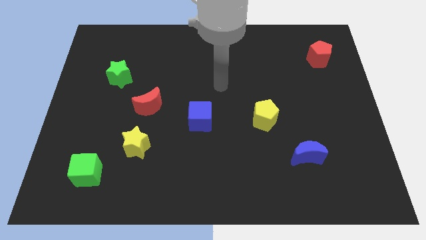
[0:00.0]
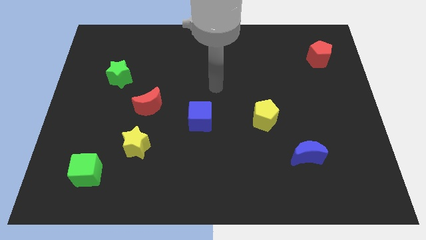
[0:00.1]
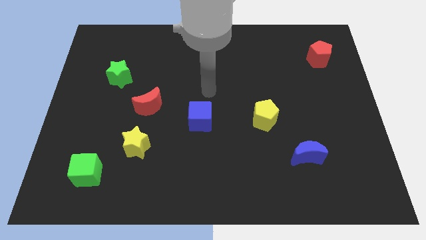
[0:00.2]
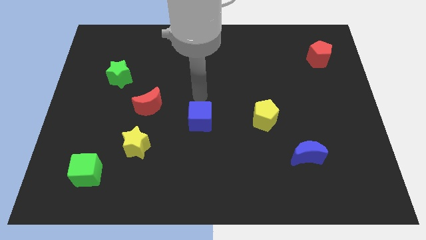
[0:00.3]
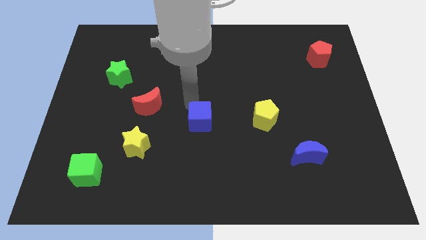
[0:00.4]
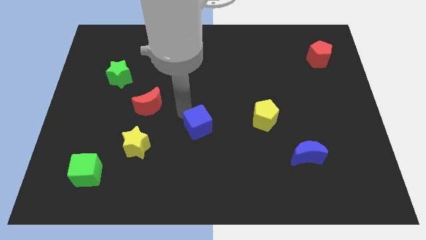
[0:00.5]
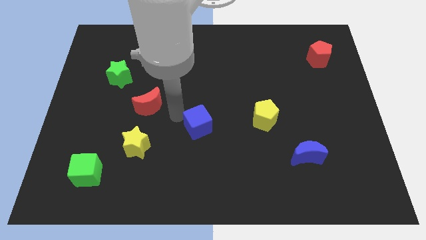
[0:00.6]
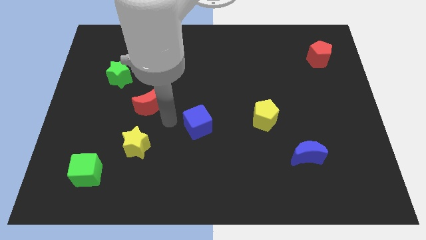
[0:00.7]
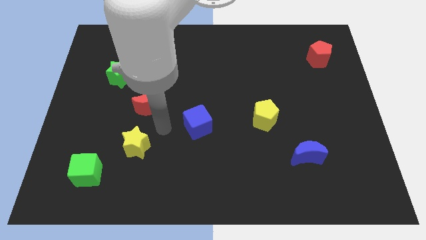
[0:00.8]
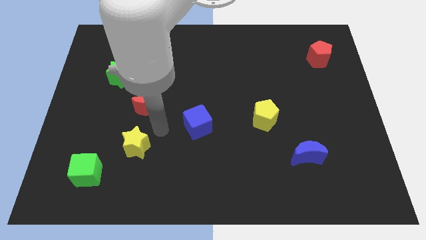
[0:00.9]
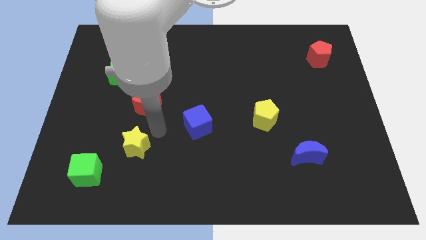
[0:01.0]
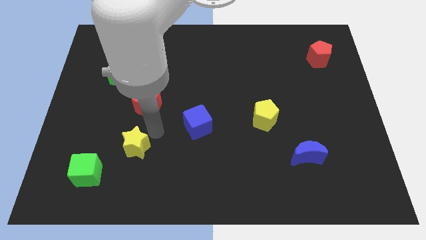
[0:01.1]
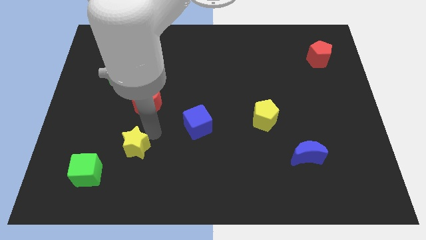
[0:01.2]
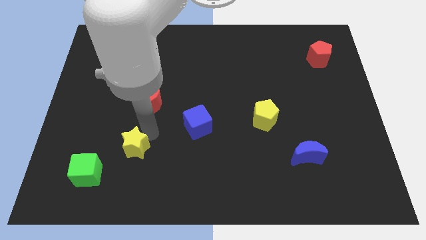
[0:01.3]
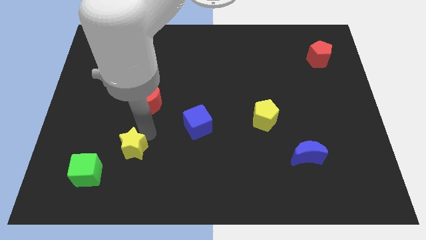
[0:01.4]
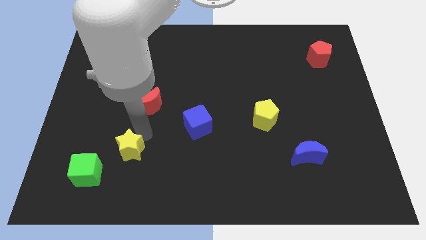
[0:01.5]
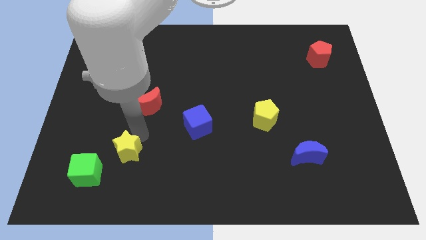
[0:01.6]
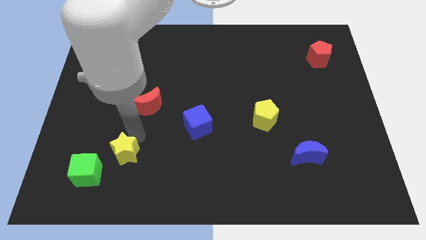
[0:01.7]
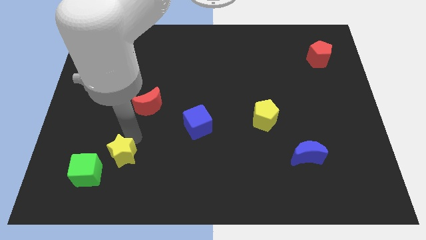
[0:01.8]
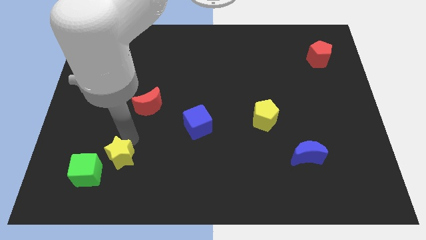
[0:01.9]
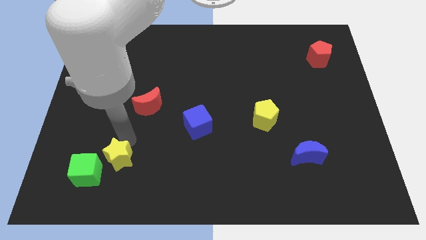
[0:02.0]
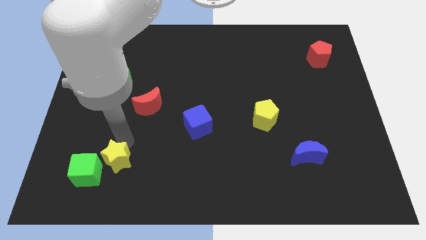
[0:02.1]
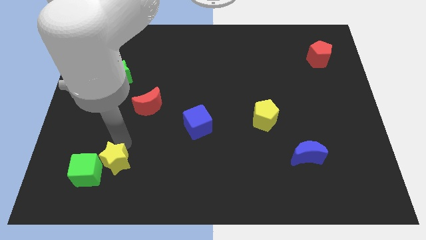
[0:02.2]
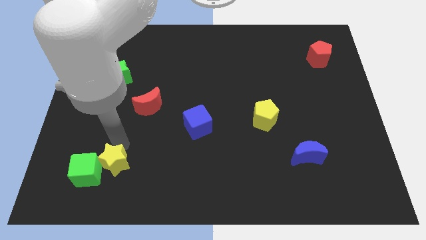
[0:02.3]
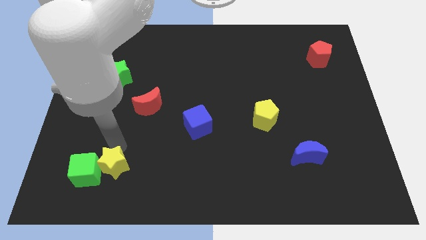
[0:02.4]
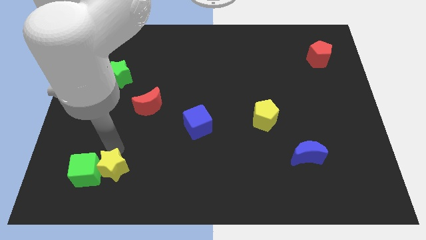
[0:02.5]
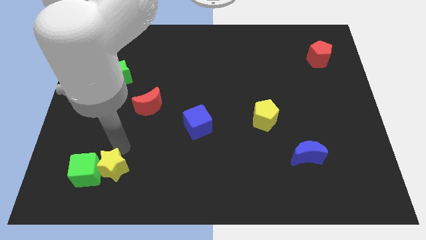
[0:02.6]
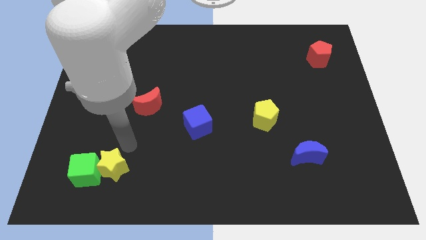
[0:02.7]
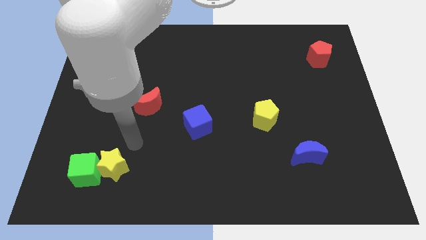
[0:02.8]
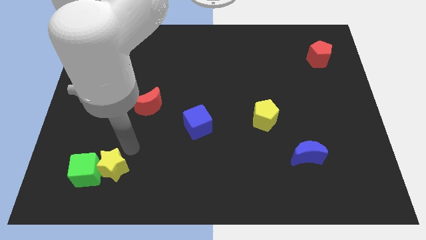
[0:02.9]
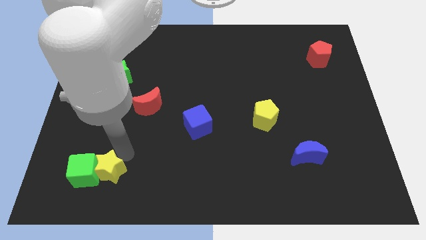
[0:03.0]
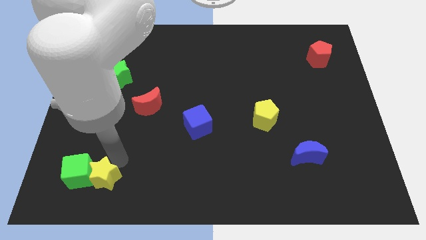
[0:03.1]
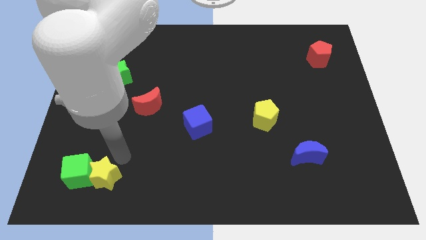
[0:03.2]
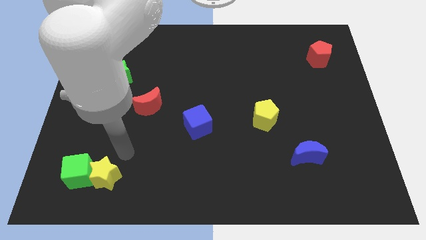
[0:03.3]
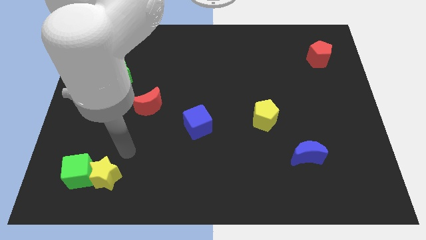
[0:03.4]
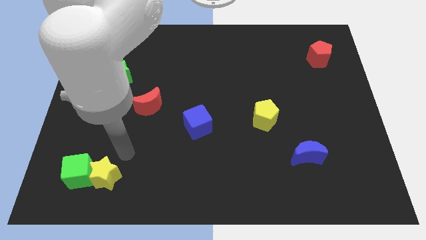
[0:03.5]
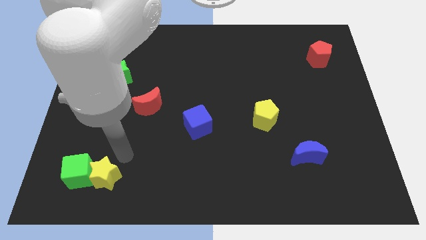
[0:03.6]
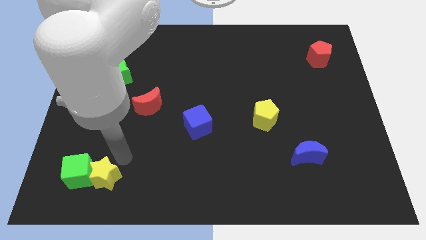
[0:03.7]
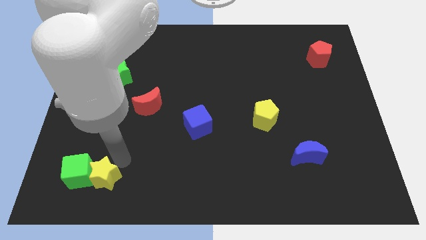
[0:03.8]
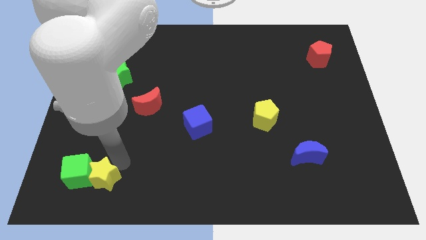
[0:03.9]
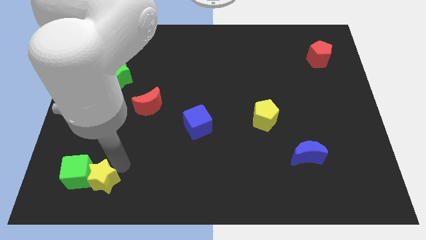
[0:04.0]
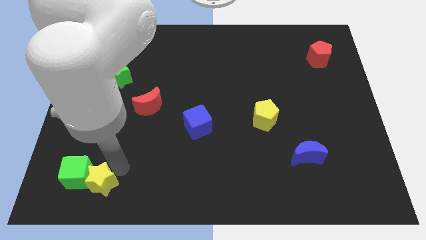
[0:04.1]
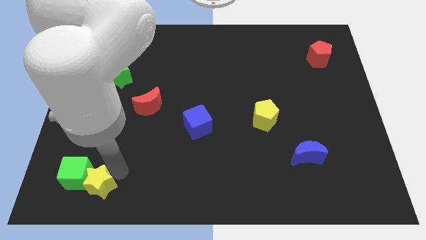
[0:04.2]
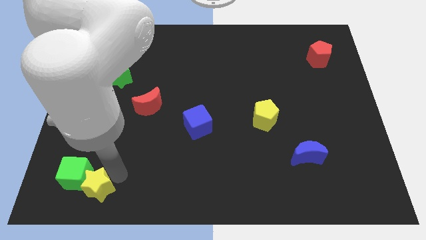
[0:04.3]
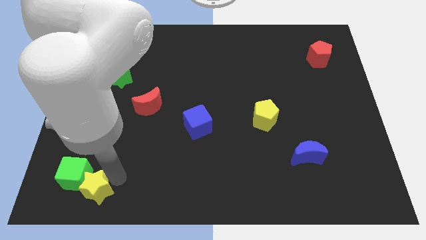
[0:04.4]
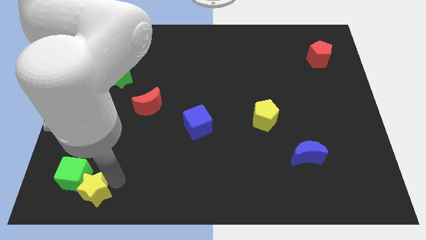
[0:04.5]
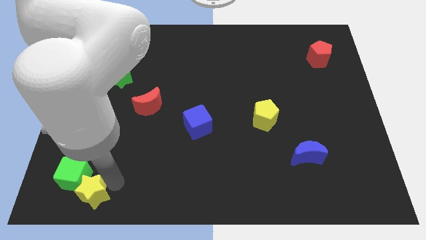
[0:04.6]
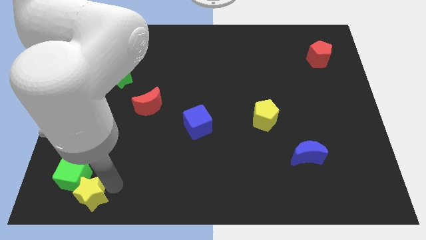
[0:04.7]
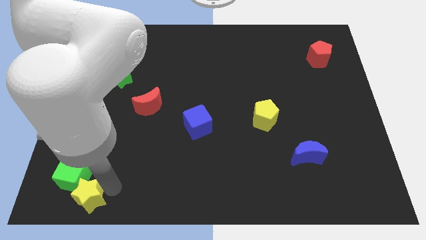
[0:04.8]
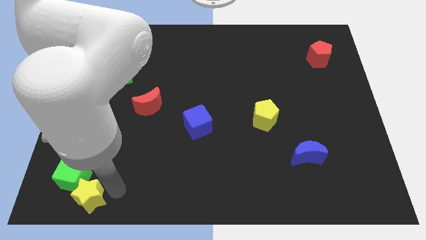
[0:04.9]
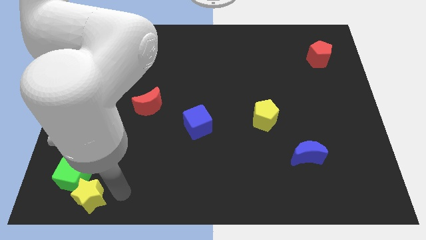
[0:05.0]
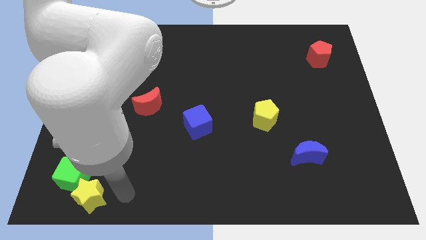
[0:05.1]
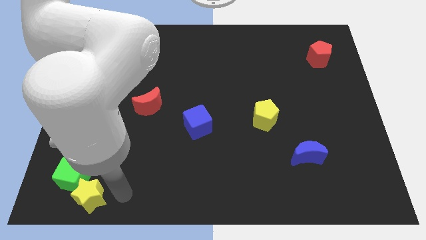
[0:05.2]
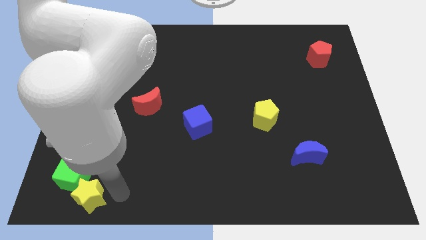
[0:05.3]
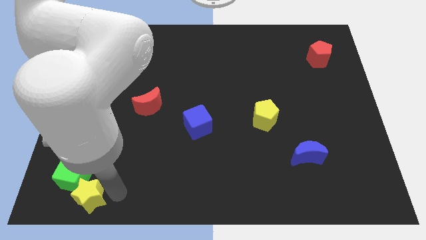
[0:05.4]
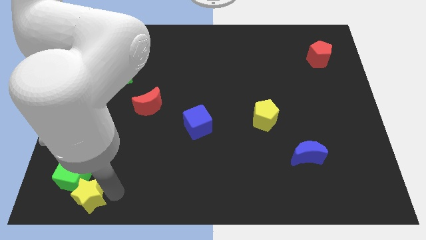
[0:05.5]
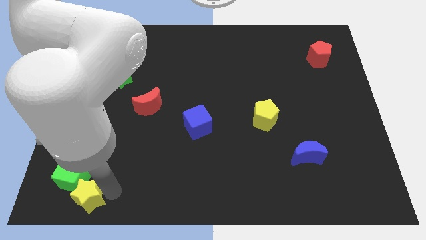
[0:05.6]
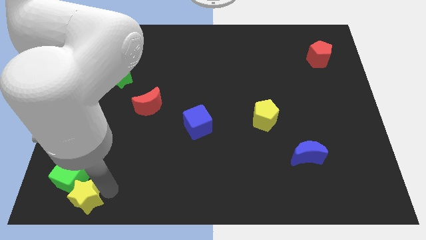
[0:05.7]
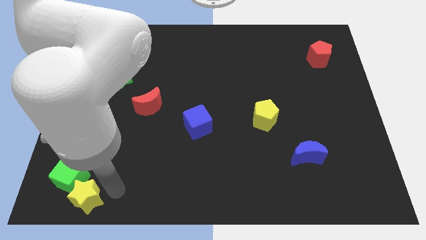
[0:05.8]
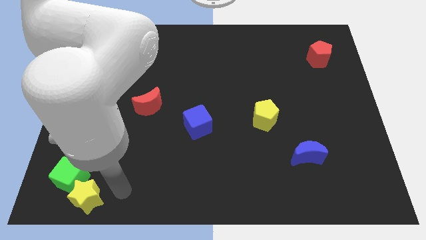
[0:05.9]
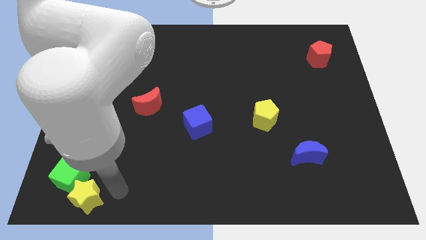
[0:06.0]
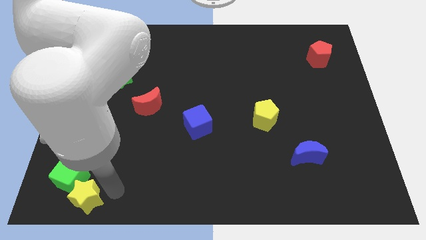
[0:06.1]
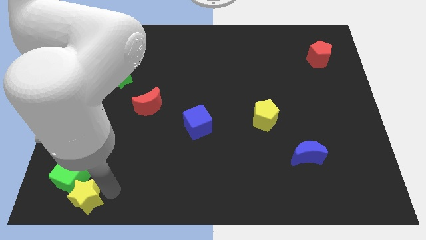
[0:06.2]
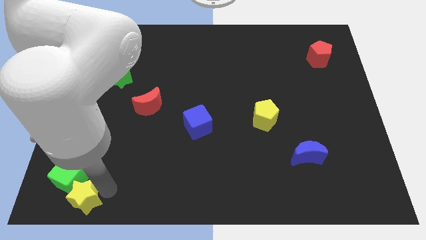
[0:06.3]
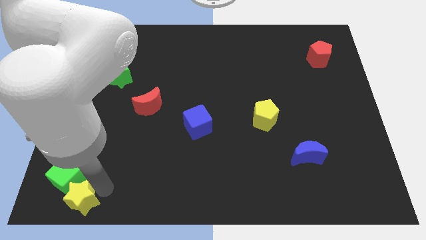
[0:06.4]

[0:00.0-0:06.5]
slide the yellow star to the bottom left corner
